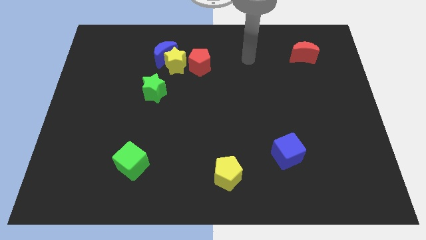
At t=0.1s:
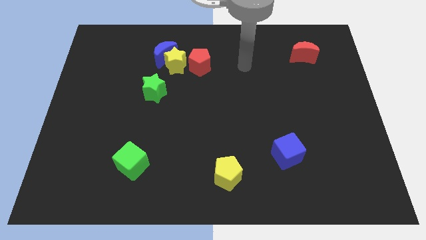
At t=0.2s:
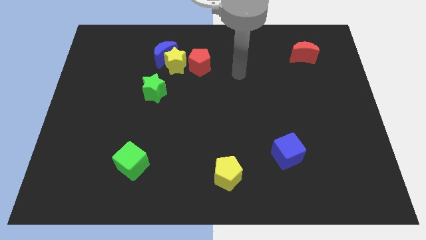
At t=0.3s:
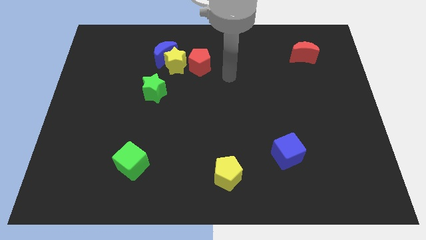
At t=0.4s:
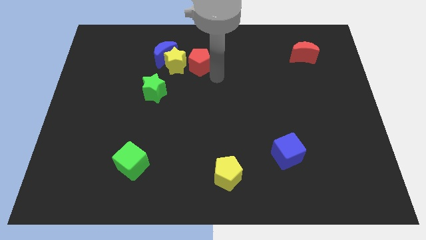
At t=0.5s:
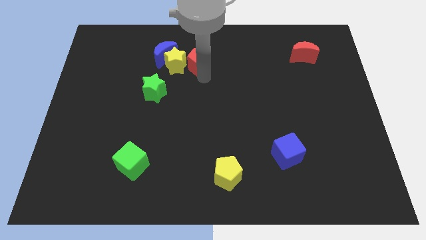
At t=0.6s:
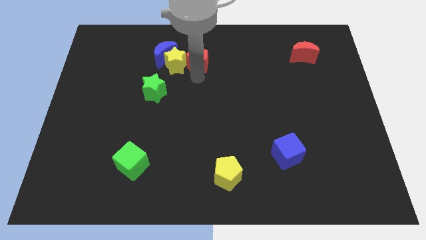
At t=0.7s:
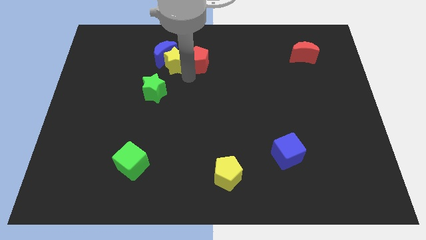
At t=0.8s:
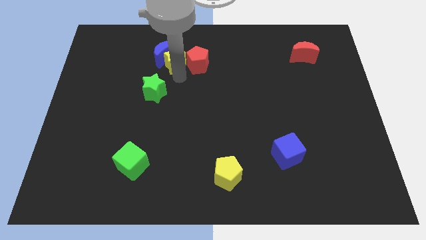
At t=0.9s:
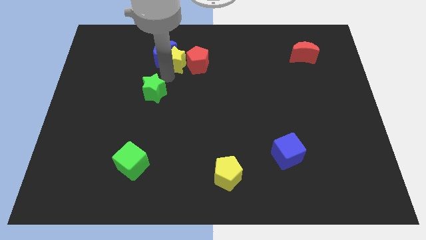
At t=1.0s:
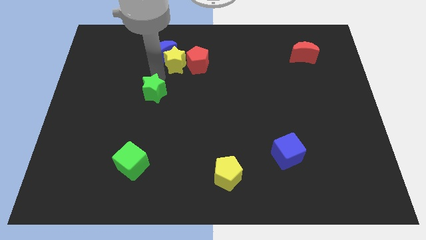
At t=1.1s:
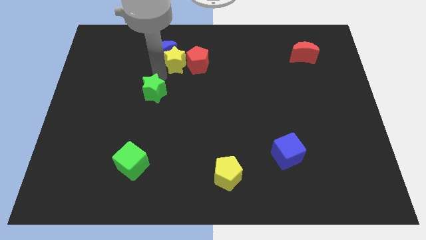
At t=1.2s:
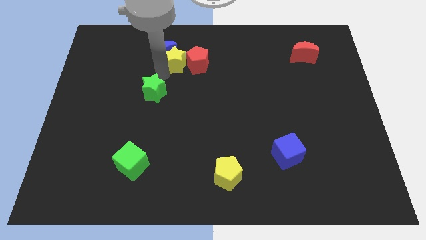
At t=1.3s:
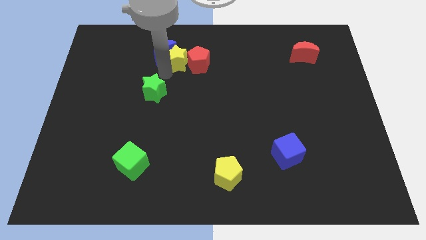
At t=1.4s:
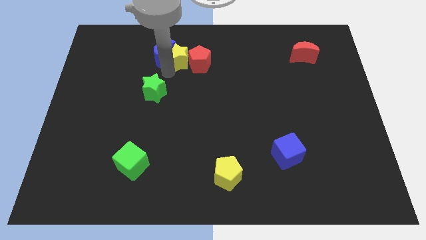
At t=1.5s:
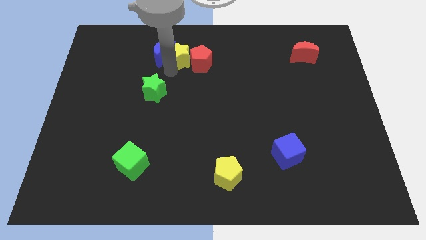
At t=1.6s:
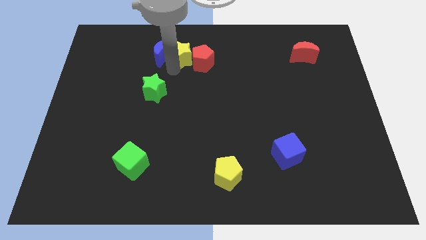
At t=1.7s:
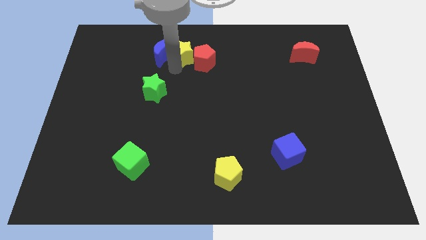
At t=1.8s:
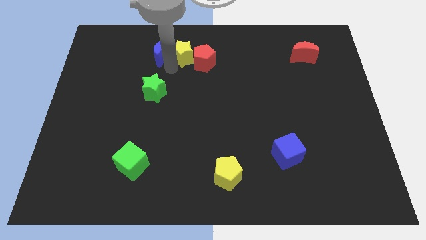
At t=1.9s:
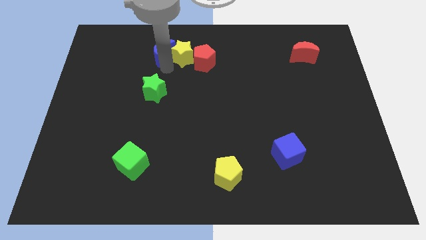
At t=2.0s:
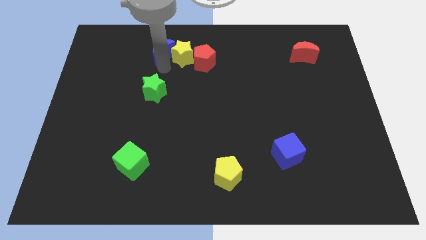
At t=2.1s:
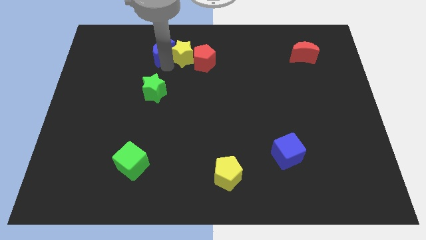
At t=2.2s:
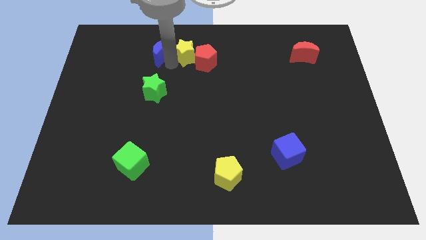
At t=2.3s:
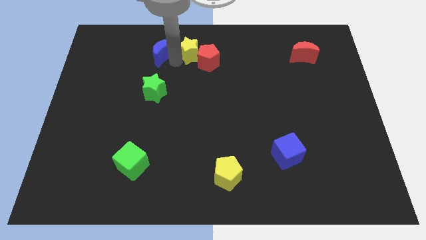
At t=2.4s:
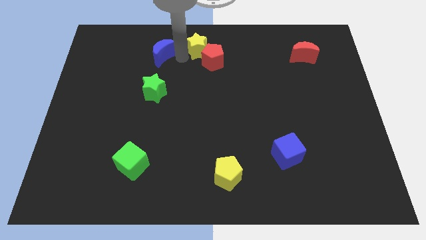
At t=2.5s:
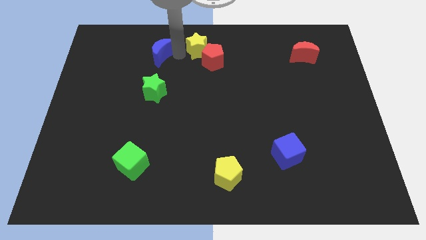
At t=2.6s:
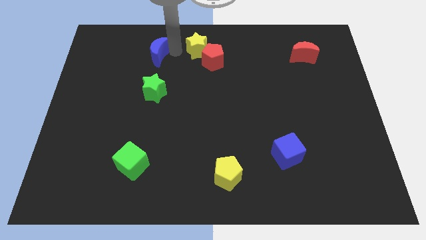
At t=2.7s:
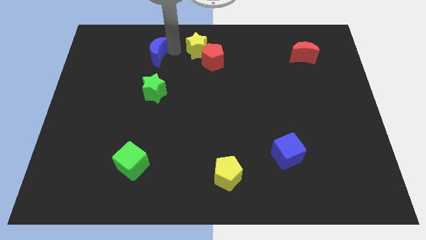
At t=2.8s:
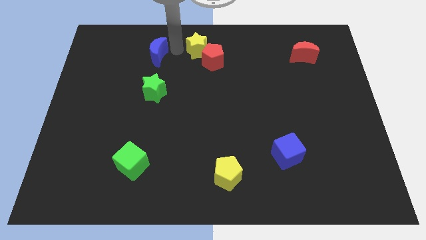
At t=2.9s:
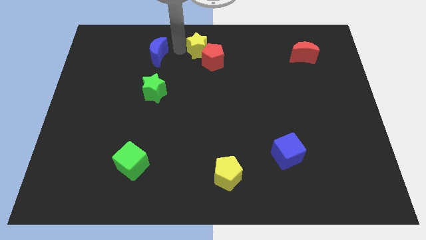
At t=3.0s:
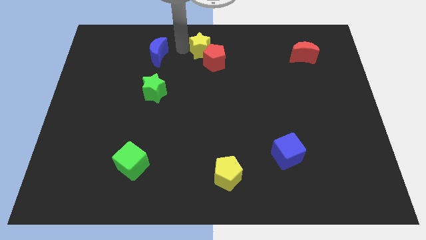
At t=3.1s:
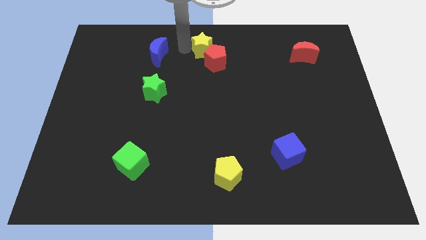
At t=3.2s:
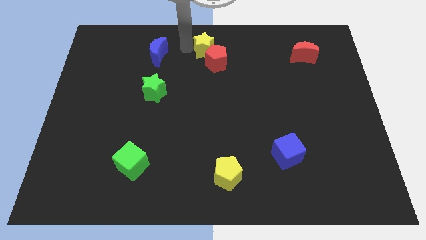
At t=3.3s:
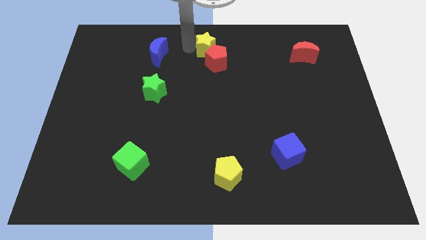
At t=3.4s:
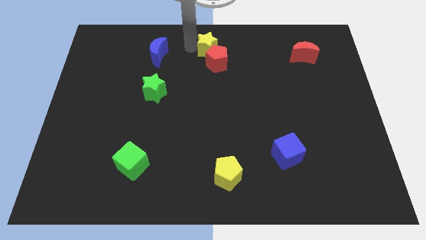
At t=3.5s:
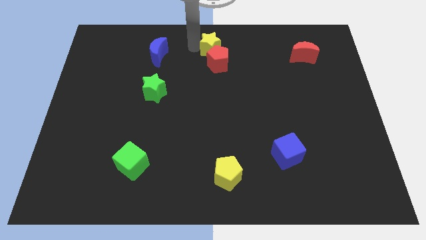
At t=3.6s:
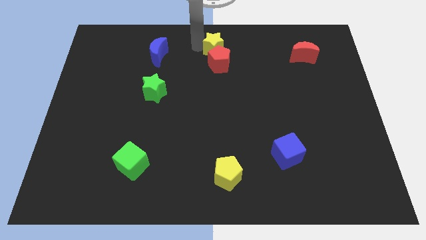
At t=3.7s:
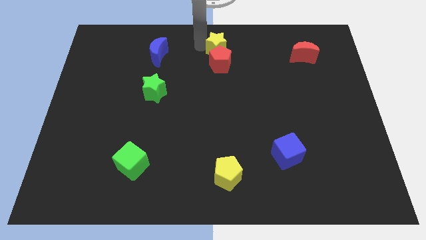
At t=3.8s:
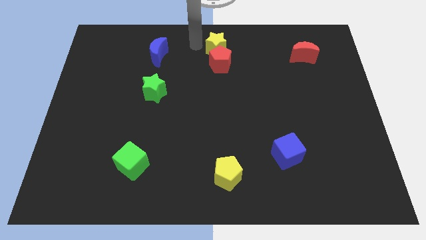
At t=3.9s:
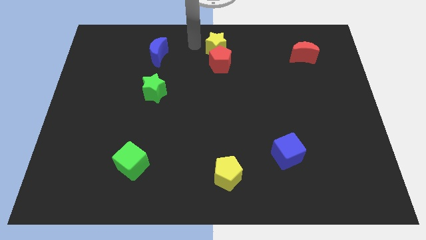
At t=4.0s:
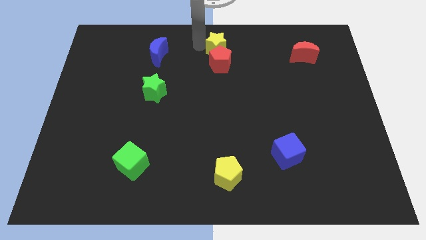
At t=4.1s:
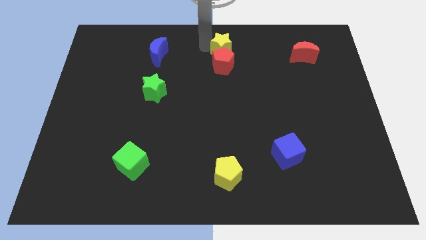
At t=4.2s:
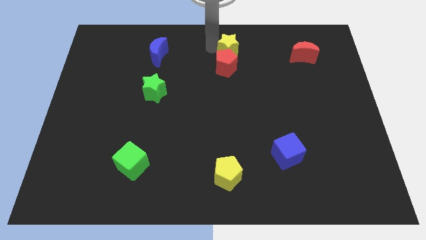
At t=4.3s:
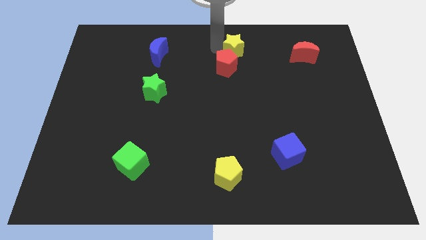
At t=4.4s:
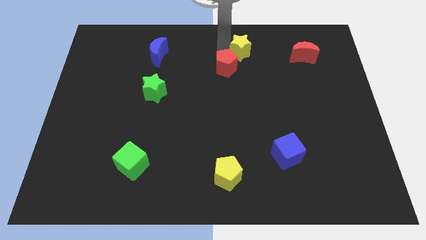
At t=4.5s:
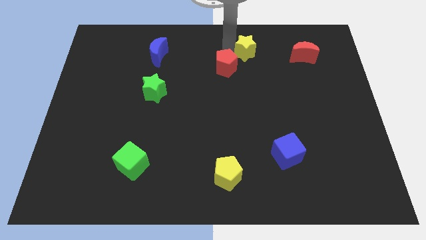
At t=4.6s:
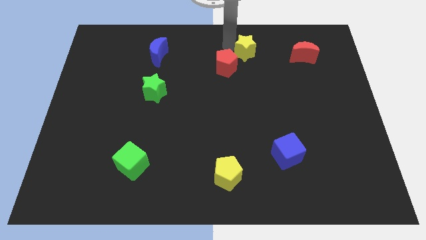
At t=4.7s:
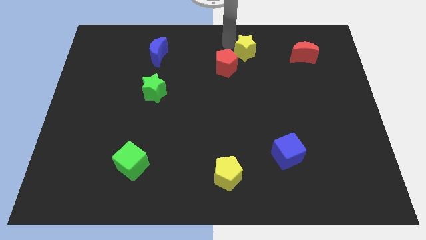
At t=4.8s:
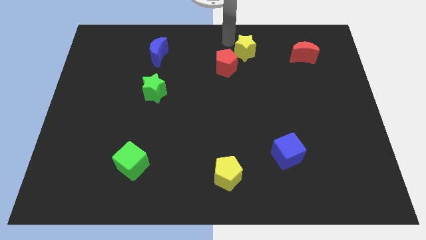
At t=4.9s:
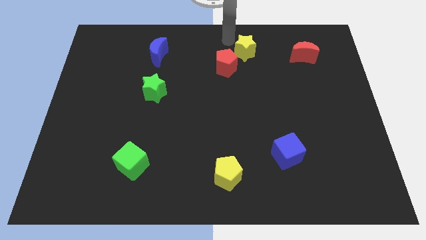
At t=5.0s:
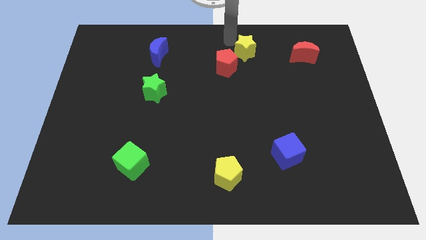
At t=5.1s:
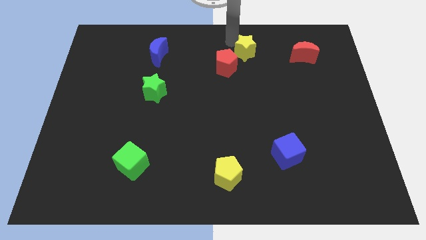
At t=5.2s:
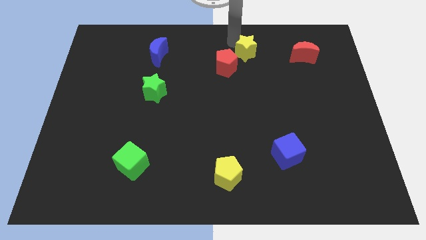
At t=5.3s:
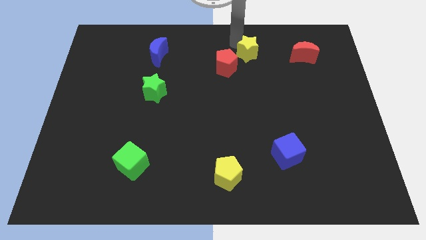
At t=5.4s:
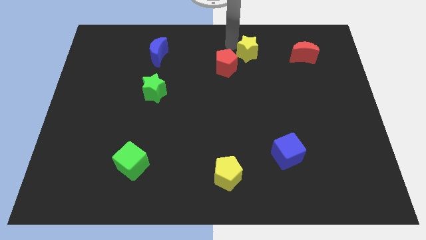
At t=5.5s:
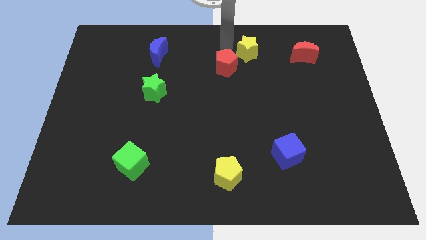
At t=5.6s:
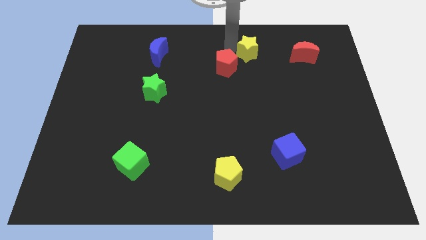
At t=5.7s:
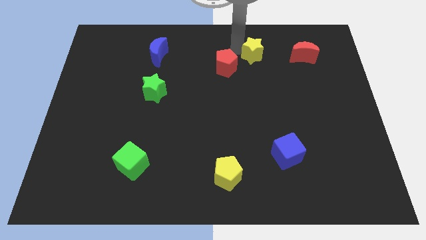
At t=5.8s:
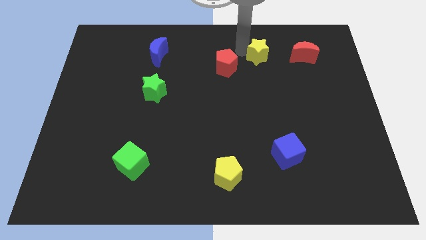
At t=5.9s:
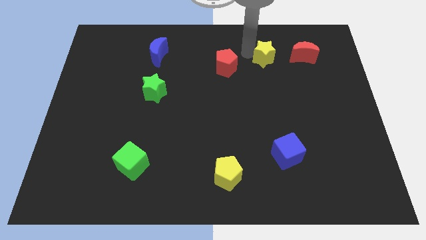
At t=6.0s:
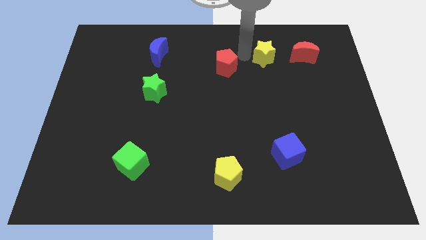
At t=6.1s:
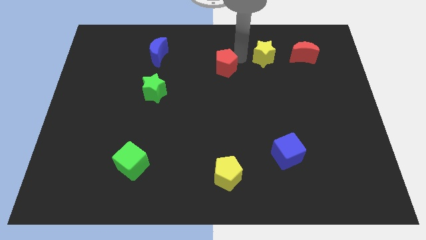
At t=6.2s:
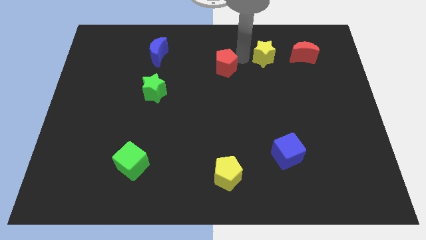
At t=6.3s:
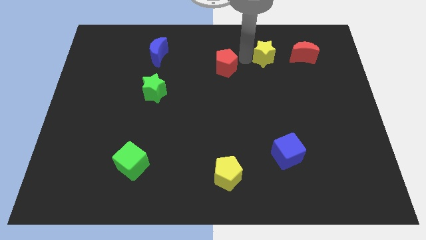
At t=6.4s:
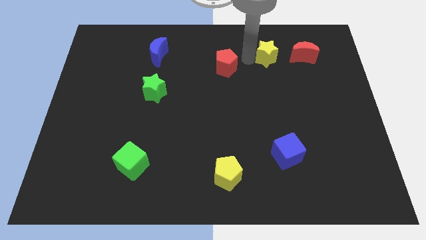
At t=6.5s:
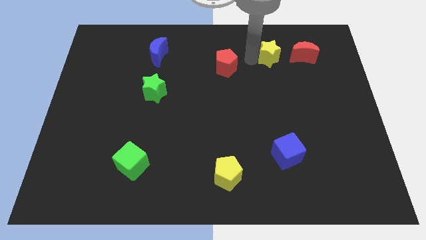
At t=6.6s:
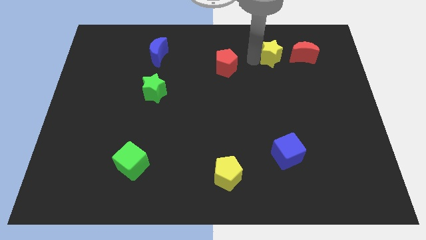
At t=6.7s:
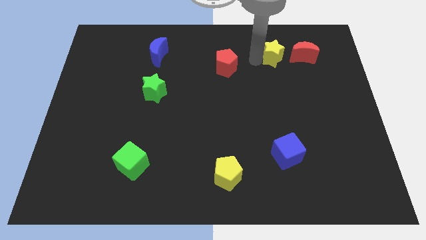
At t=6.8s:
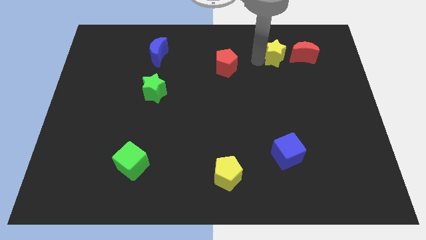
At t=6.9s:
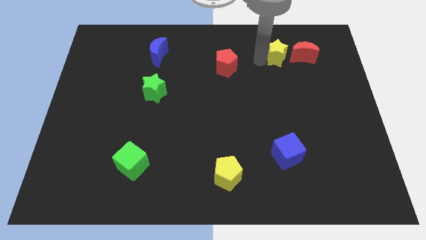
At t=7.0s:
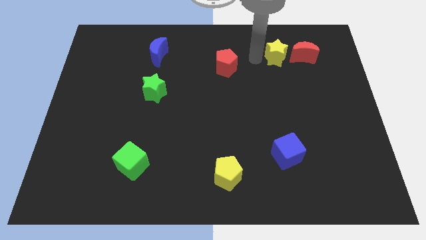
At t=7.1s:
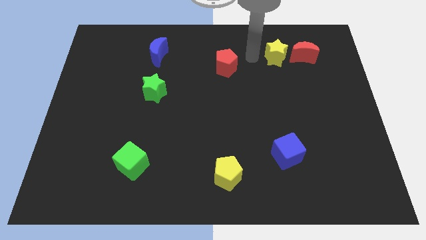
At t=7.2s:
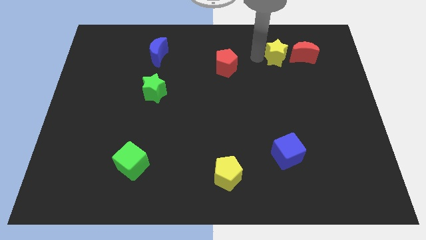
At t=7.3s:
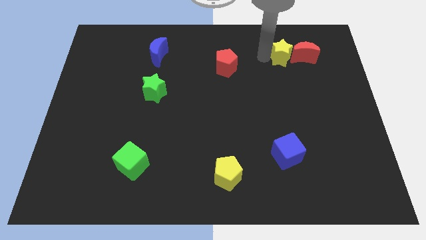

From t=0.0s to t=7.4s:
put the yellow star next to the red moon
